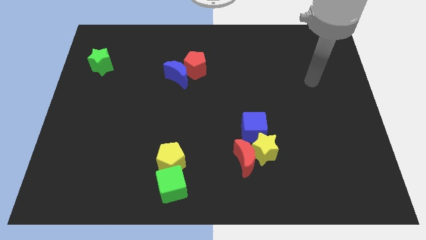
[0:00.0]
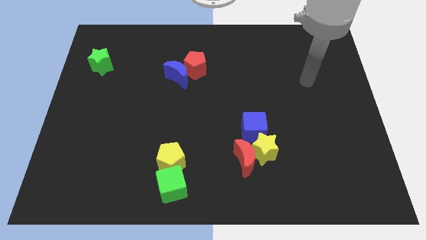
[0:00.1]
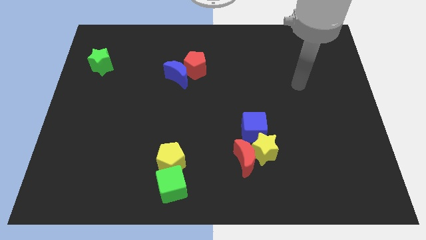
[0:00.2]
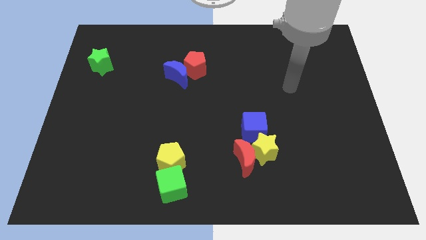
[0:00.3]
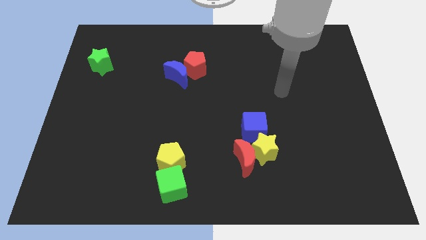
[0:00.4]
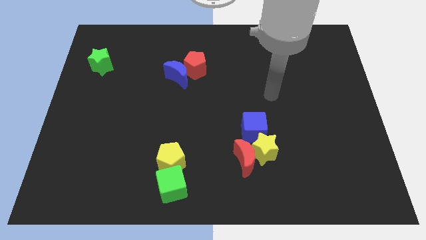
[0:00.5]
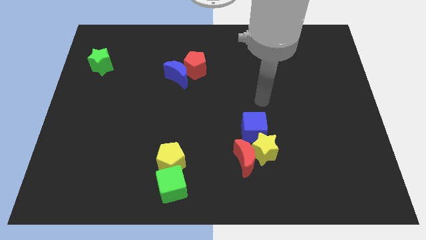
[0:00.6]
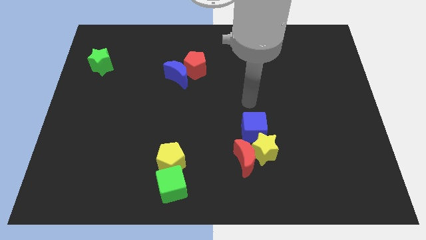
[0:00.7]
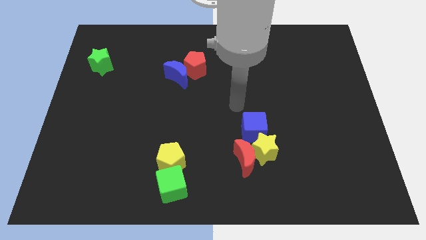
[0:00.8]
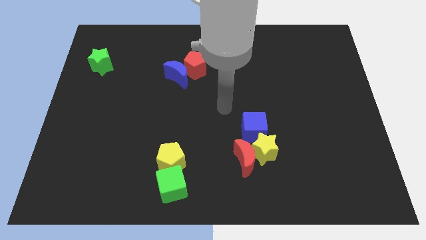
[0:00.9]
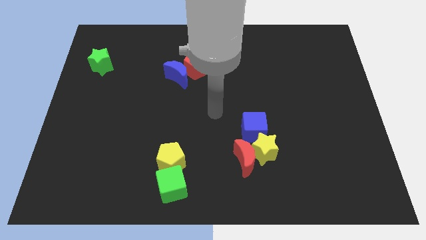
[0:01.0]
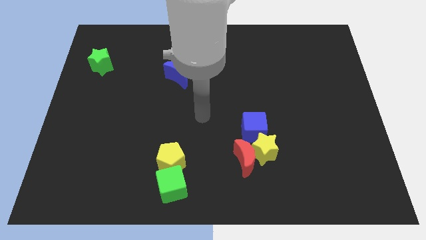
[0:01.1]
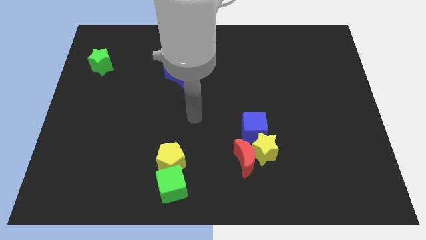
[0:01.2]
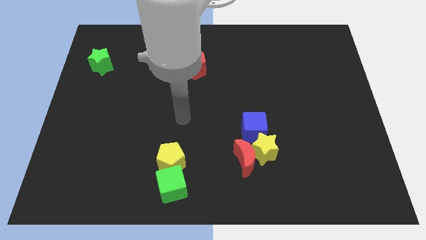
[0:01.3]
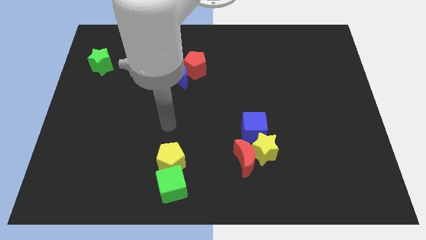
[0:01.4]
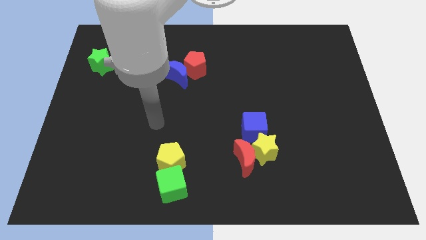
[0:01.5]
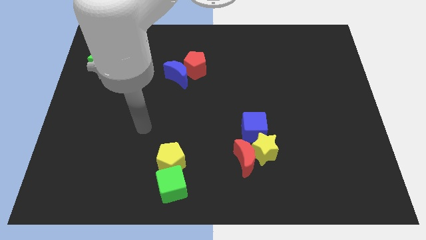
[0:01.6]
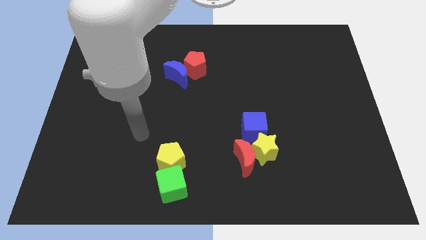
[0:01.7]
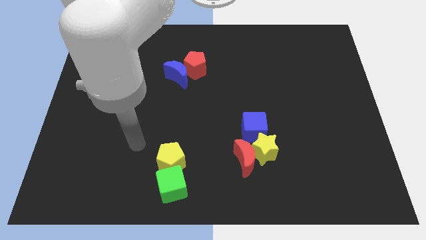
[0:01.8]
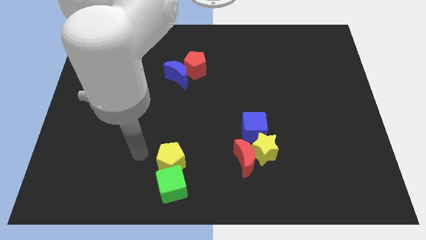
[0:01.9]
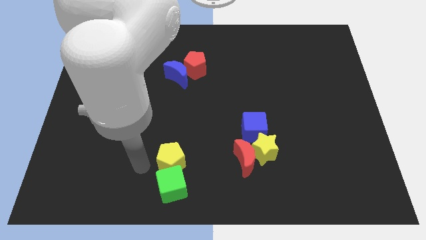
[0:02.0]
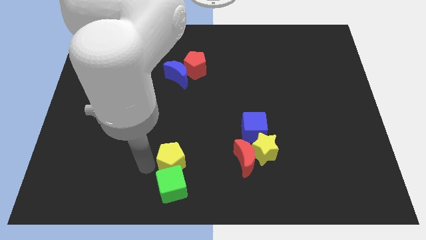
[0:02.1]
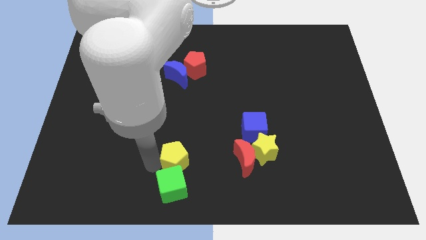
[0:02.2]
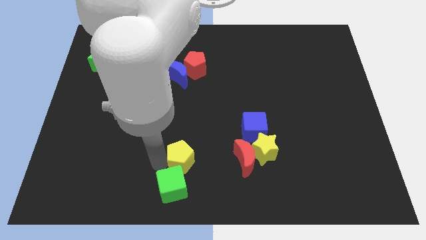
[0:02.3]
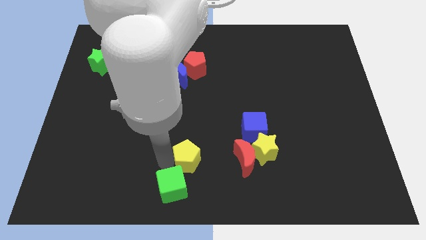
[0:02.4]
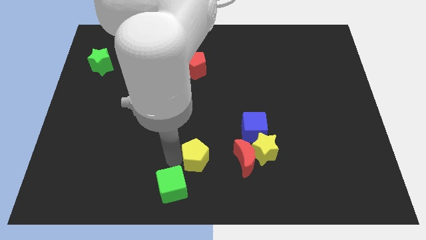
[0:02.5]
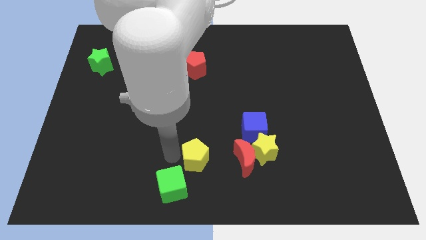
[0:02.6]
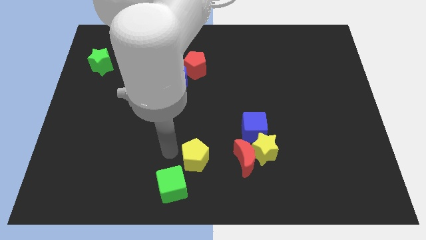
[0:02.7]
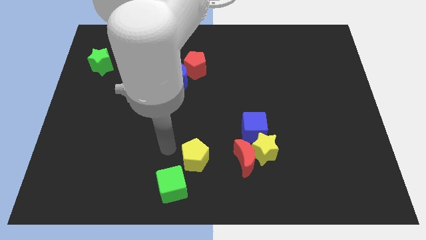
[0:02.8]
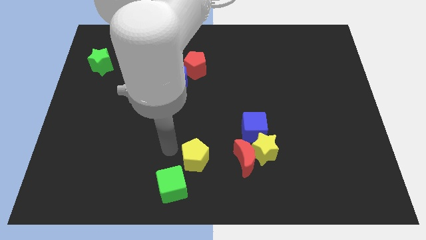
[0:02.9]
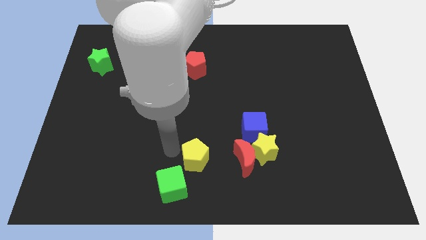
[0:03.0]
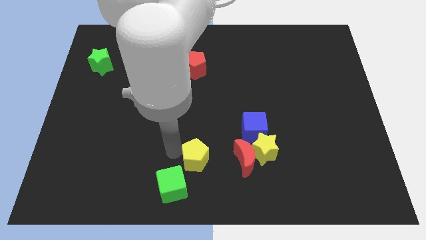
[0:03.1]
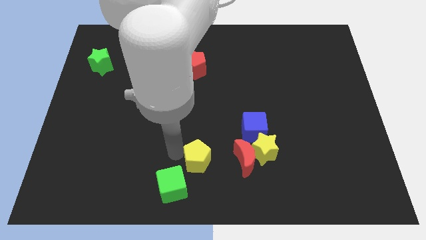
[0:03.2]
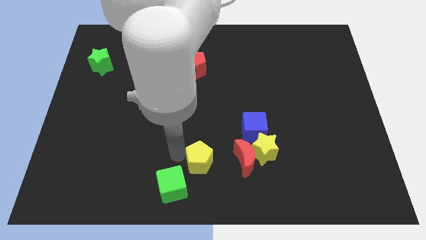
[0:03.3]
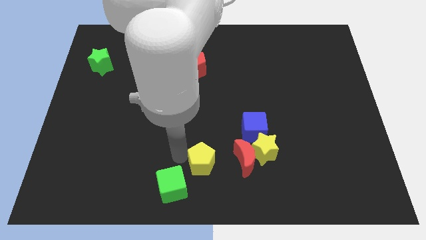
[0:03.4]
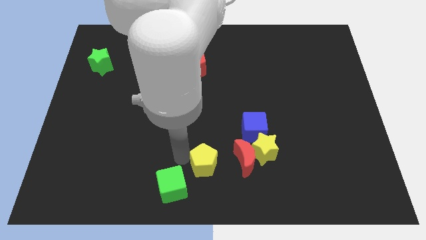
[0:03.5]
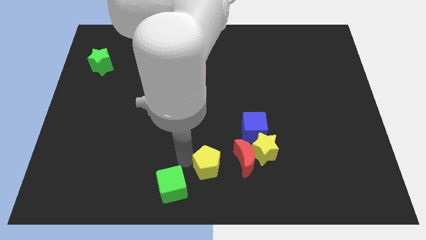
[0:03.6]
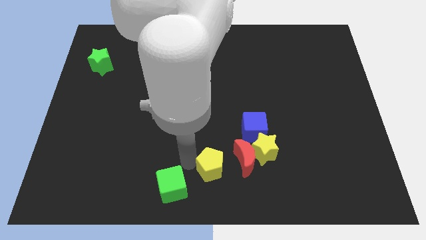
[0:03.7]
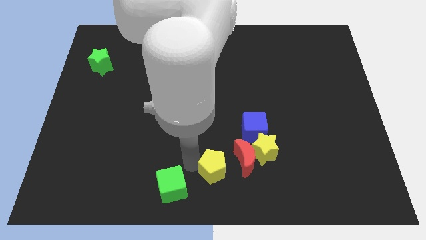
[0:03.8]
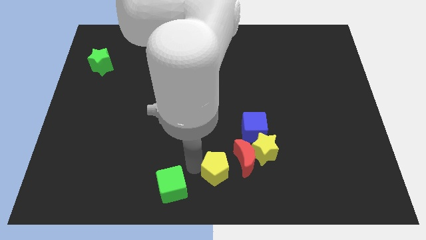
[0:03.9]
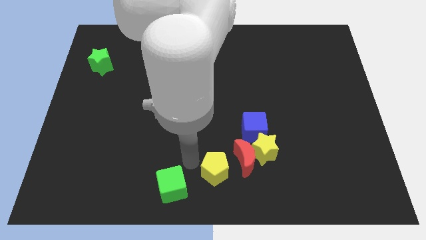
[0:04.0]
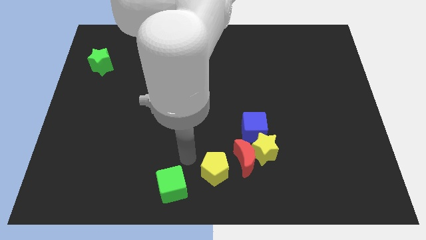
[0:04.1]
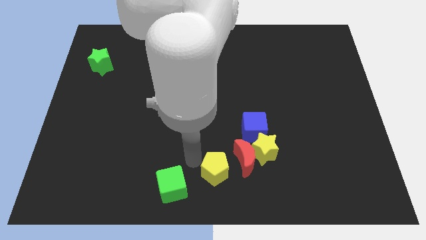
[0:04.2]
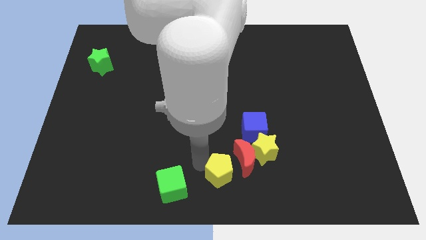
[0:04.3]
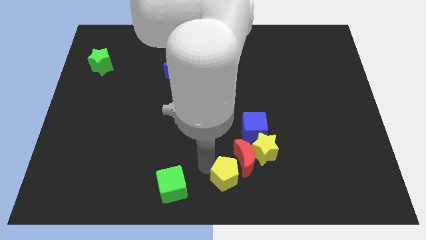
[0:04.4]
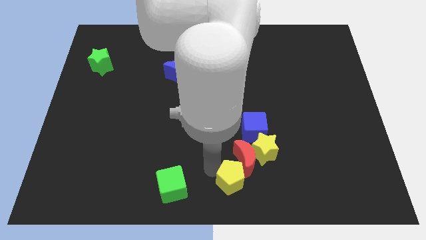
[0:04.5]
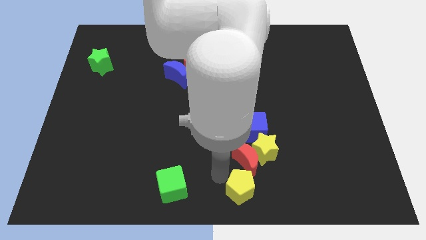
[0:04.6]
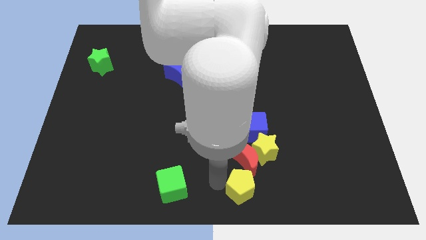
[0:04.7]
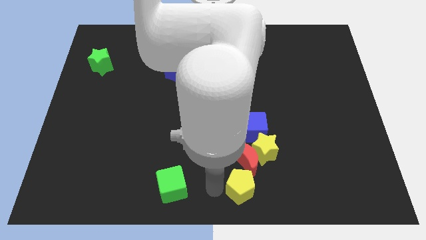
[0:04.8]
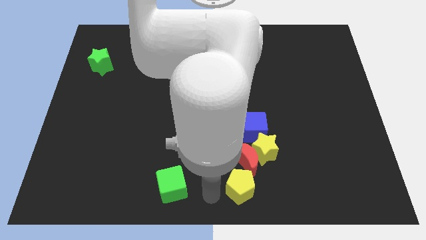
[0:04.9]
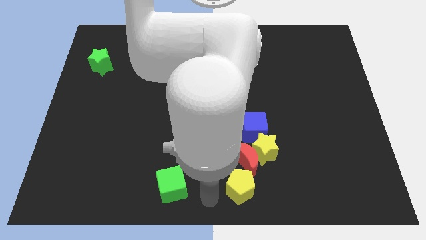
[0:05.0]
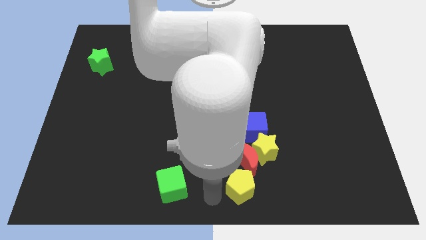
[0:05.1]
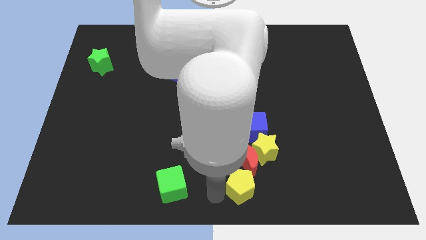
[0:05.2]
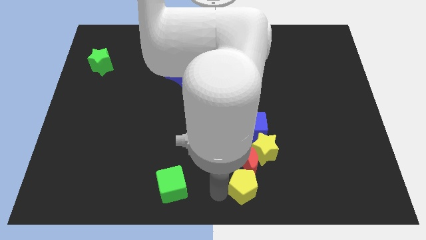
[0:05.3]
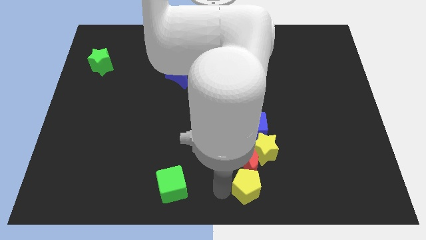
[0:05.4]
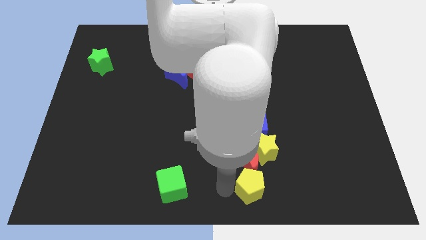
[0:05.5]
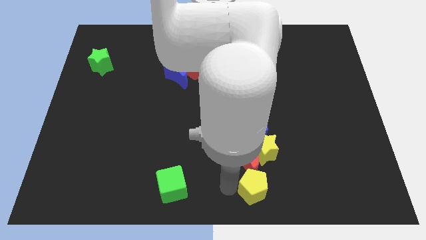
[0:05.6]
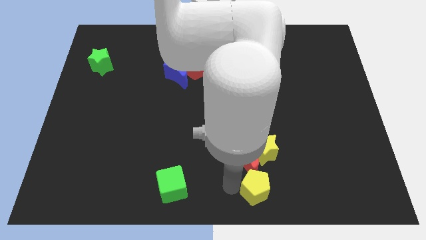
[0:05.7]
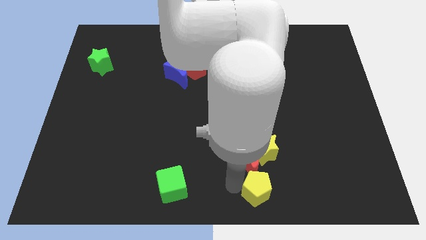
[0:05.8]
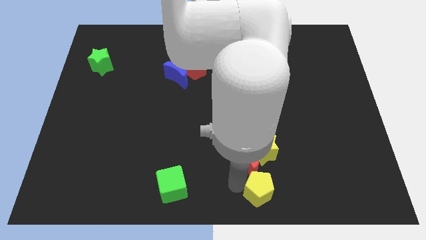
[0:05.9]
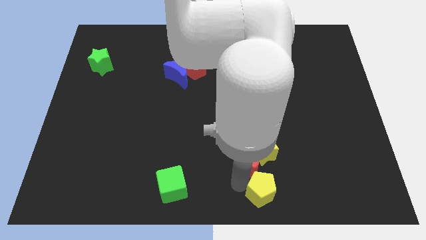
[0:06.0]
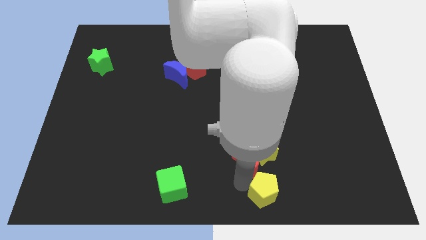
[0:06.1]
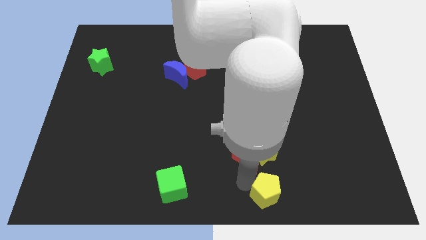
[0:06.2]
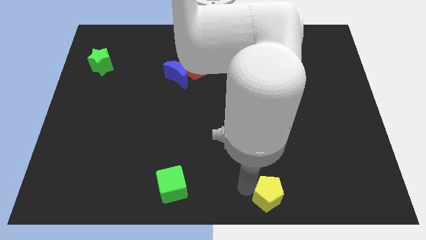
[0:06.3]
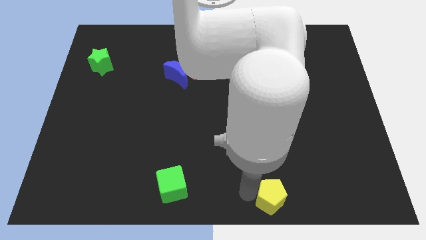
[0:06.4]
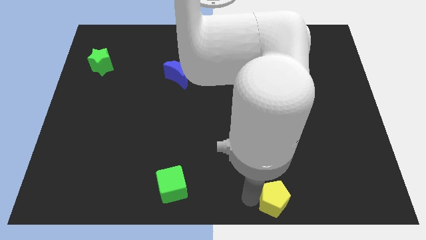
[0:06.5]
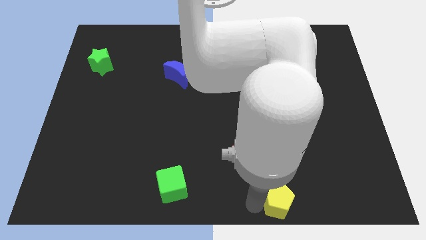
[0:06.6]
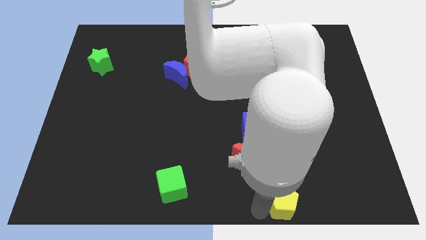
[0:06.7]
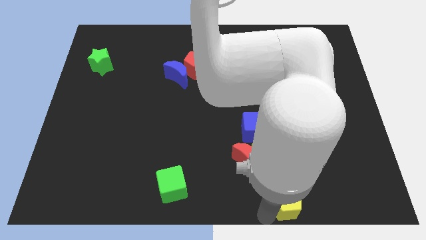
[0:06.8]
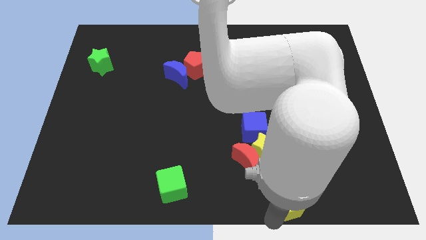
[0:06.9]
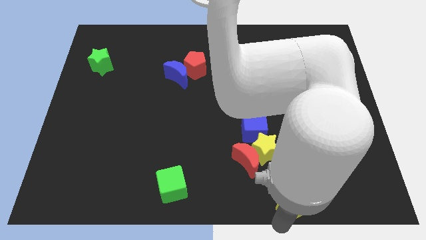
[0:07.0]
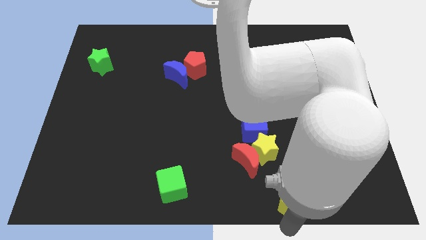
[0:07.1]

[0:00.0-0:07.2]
slide the yellow pentagon right

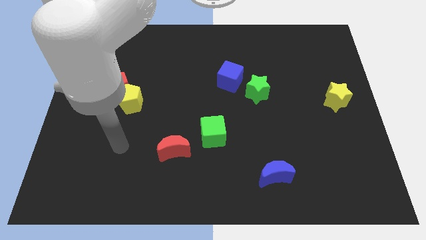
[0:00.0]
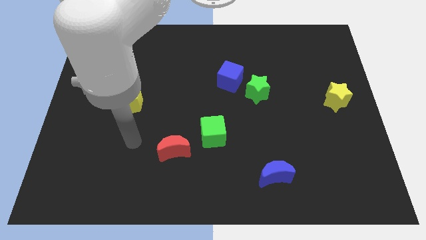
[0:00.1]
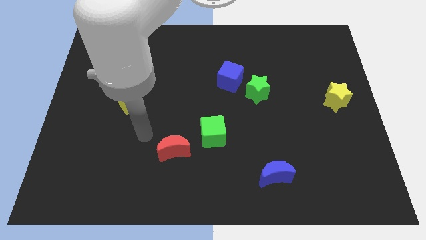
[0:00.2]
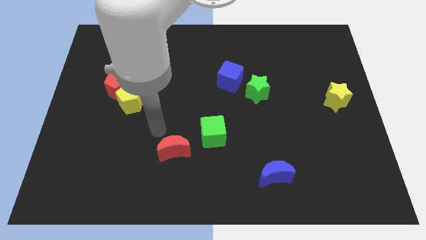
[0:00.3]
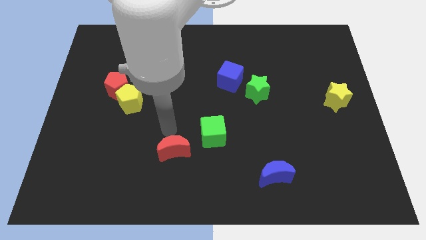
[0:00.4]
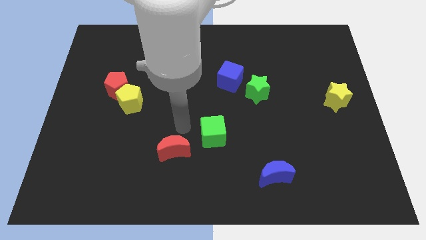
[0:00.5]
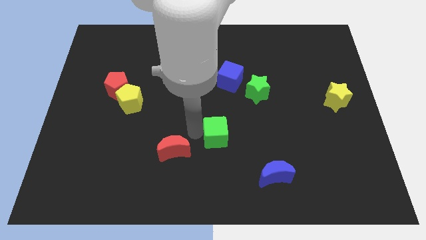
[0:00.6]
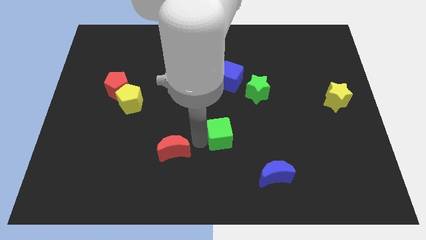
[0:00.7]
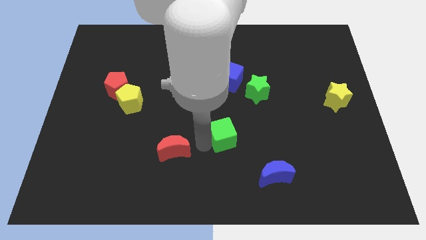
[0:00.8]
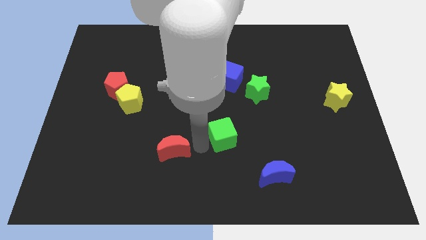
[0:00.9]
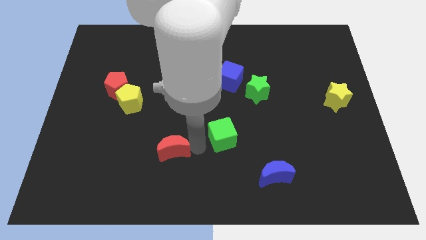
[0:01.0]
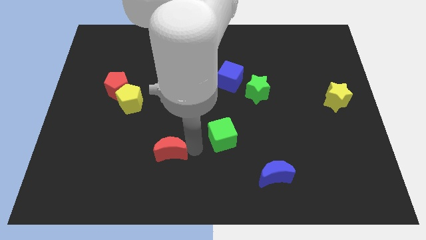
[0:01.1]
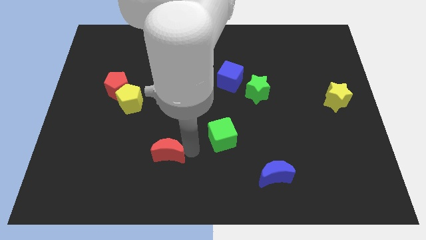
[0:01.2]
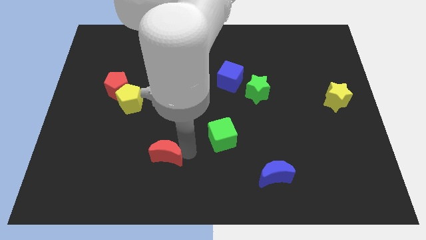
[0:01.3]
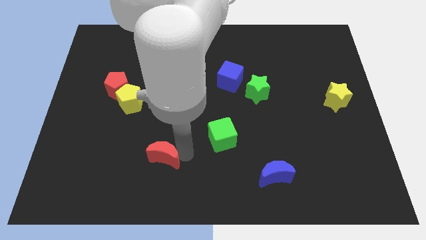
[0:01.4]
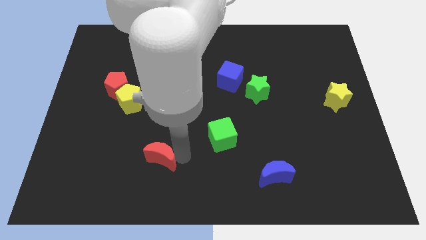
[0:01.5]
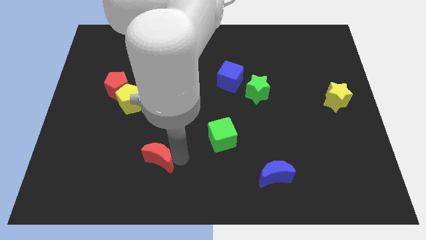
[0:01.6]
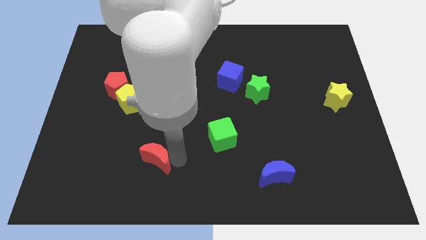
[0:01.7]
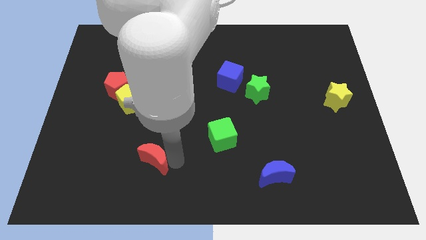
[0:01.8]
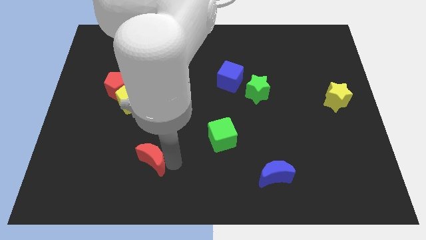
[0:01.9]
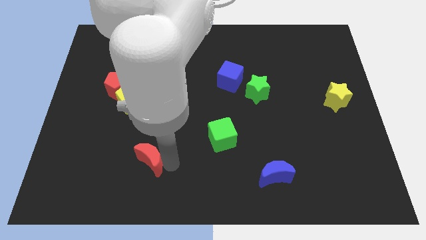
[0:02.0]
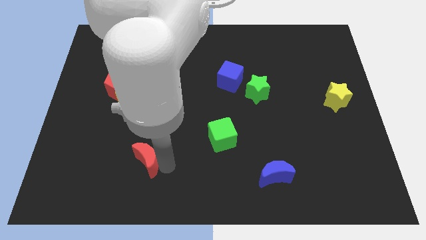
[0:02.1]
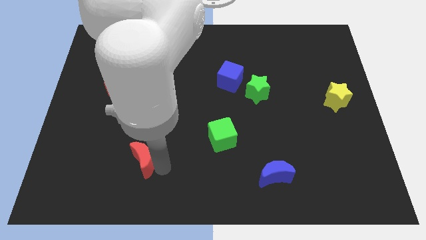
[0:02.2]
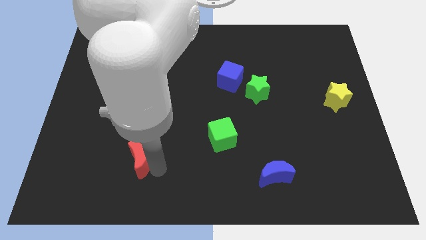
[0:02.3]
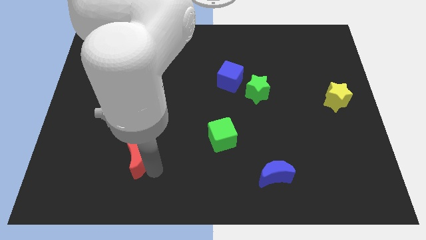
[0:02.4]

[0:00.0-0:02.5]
push the red moon left a little bit
